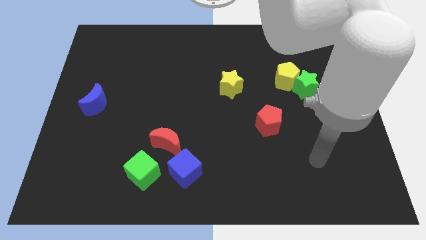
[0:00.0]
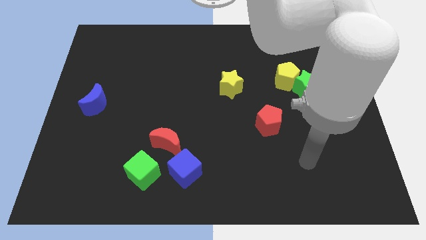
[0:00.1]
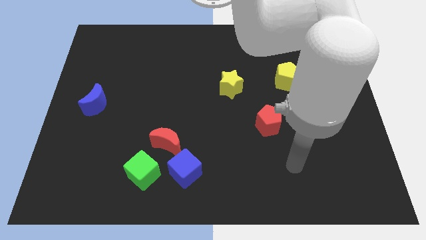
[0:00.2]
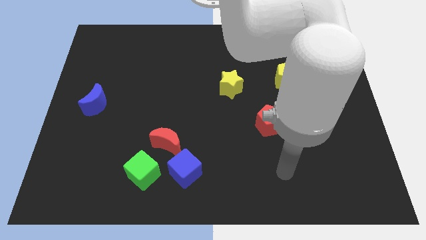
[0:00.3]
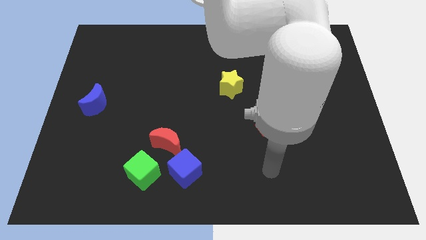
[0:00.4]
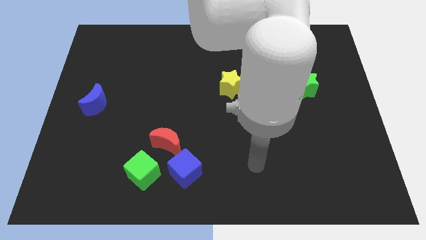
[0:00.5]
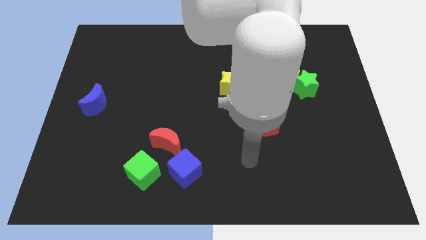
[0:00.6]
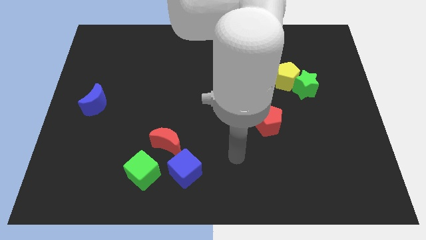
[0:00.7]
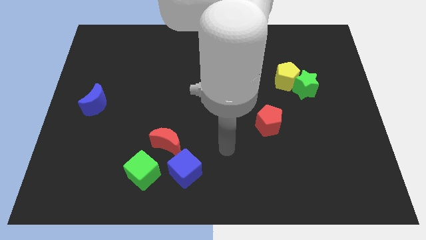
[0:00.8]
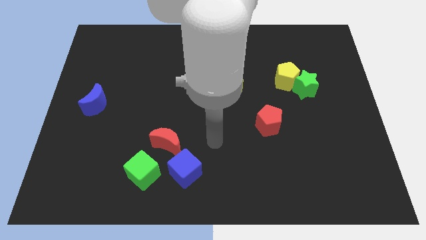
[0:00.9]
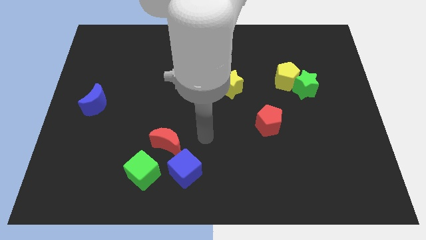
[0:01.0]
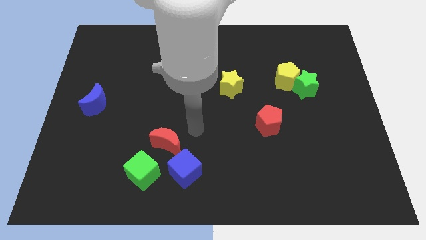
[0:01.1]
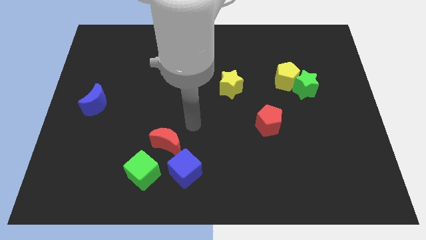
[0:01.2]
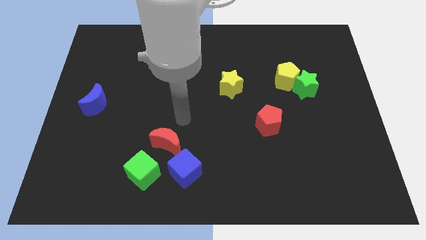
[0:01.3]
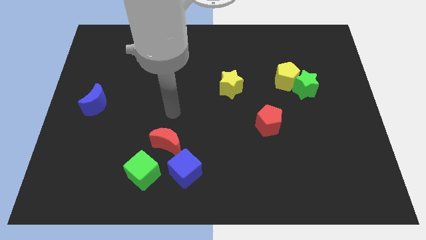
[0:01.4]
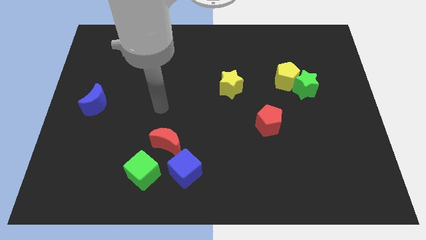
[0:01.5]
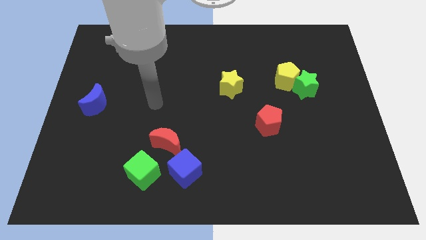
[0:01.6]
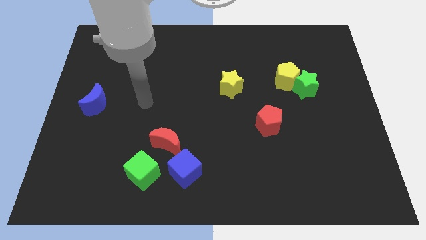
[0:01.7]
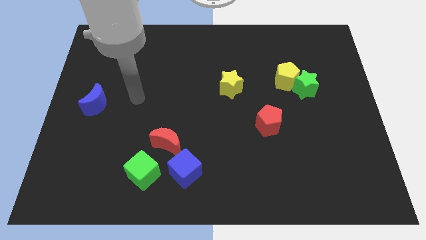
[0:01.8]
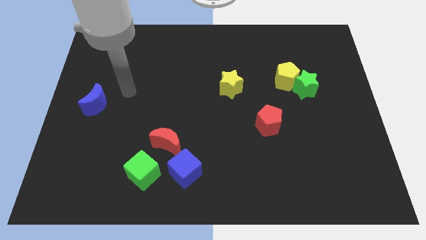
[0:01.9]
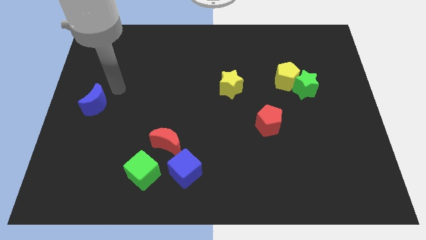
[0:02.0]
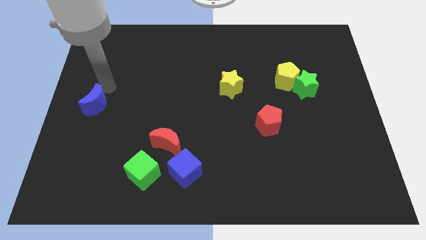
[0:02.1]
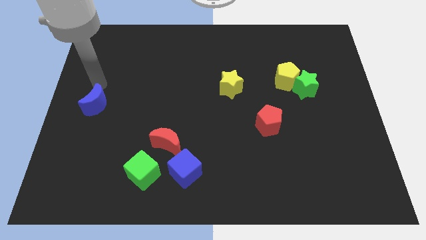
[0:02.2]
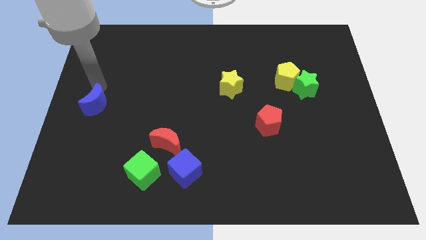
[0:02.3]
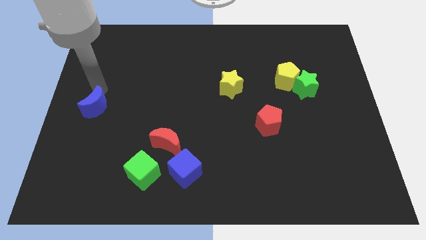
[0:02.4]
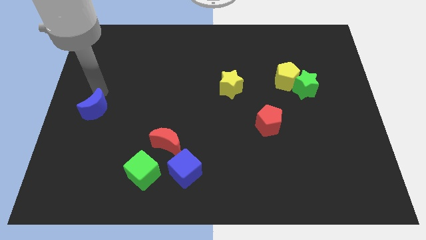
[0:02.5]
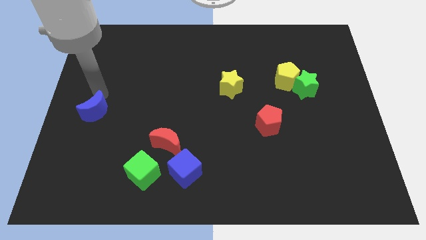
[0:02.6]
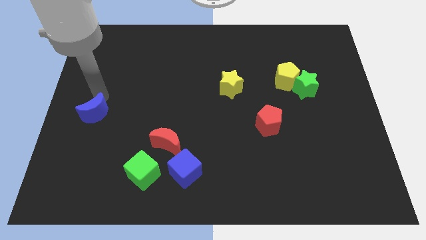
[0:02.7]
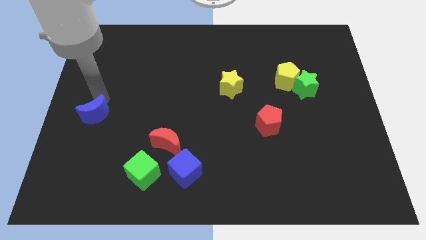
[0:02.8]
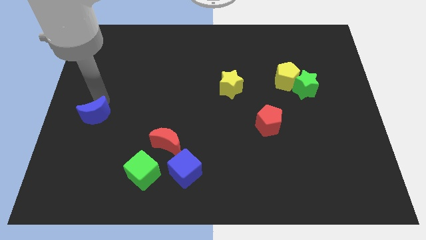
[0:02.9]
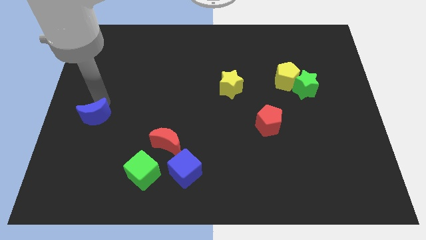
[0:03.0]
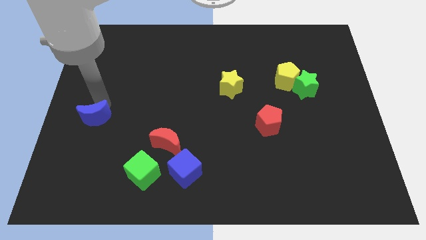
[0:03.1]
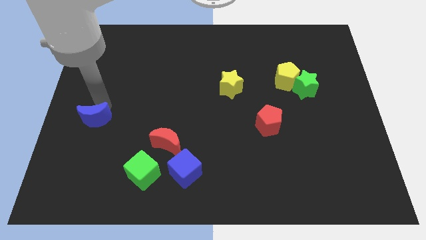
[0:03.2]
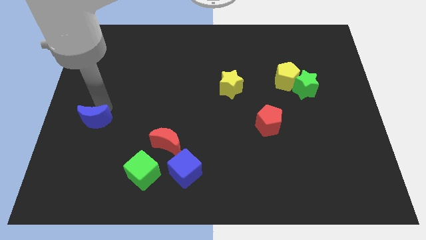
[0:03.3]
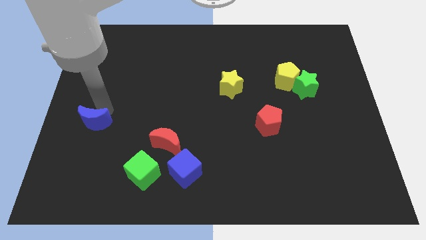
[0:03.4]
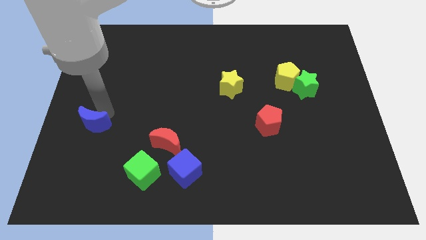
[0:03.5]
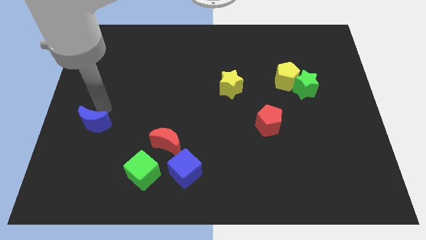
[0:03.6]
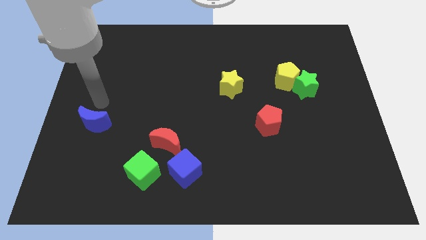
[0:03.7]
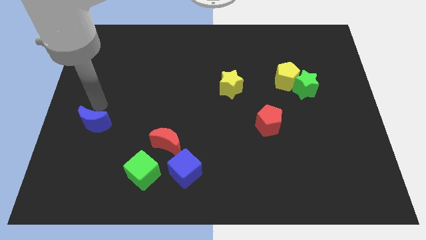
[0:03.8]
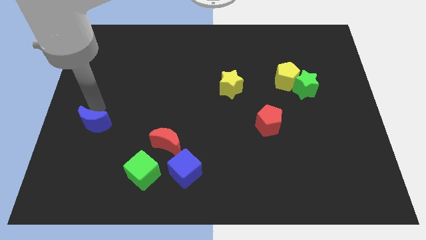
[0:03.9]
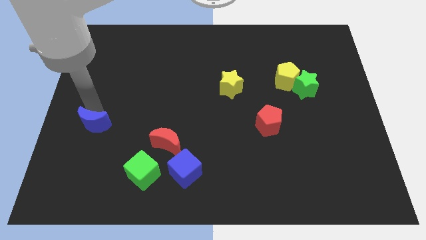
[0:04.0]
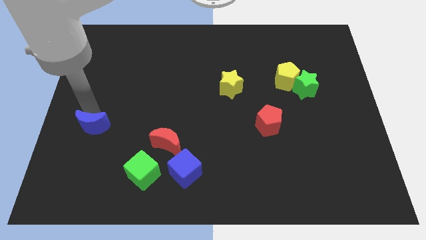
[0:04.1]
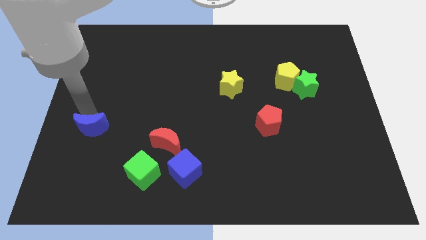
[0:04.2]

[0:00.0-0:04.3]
move the blue moon a little down

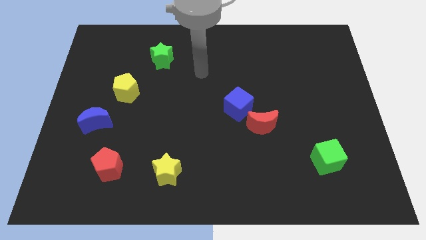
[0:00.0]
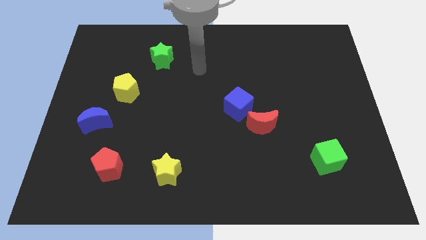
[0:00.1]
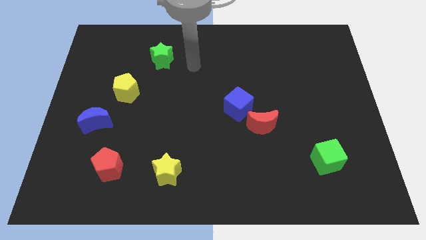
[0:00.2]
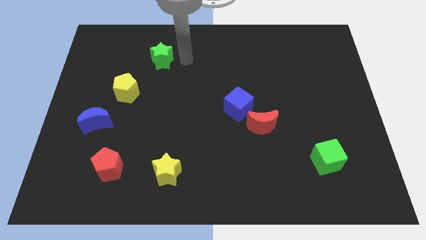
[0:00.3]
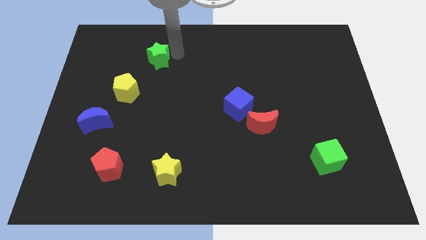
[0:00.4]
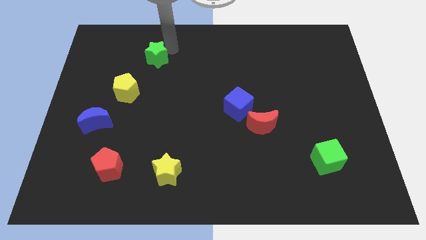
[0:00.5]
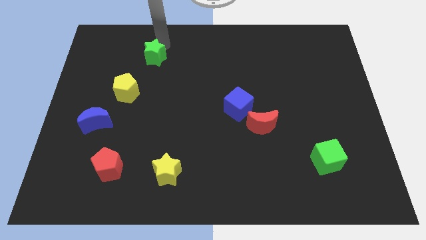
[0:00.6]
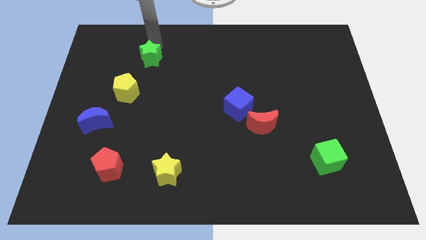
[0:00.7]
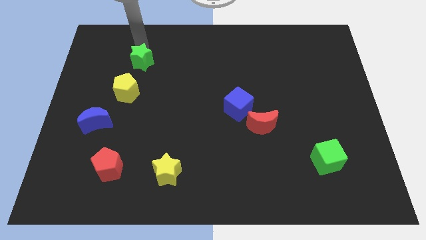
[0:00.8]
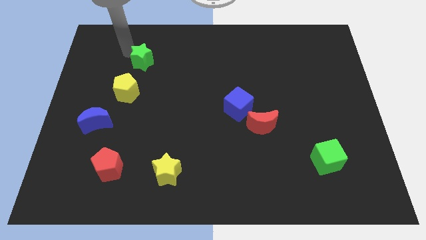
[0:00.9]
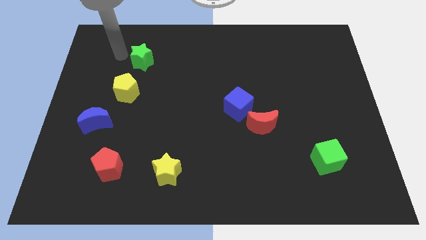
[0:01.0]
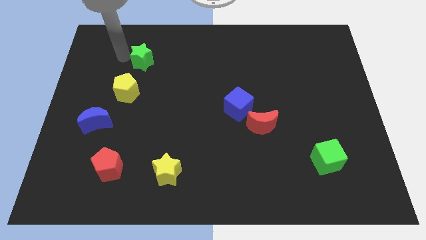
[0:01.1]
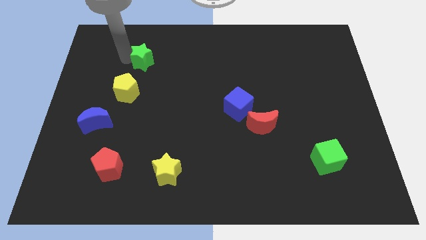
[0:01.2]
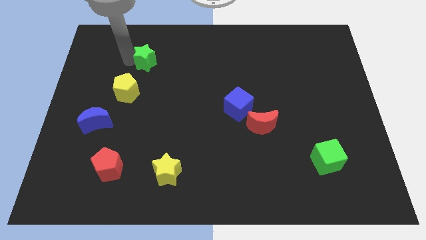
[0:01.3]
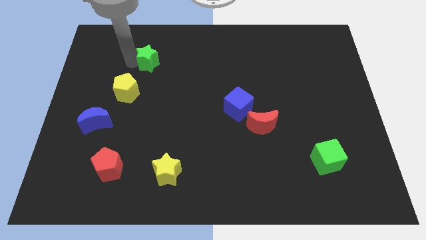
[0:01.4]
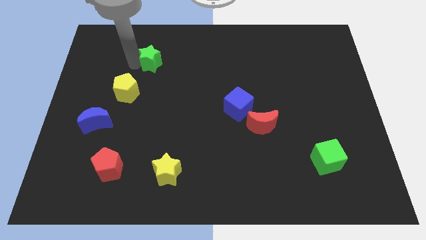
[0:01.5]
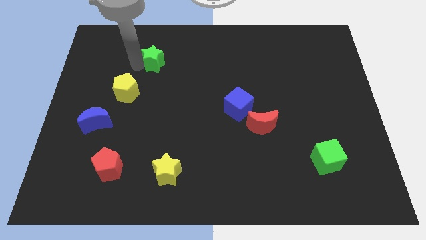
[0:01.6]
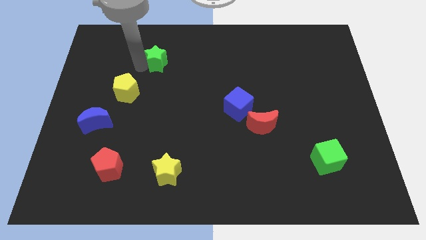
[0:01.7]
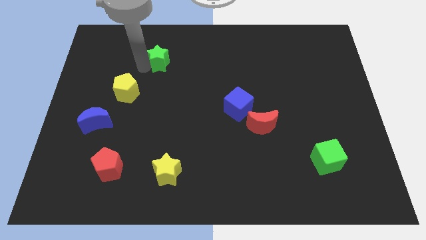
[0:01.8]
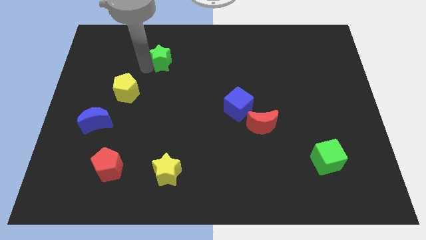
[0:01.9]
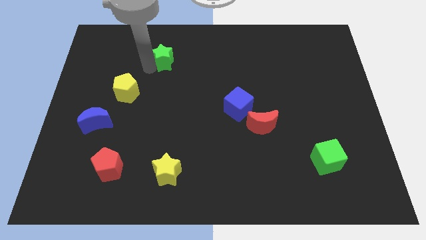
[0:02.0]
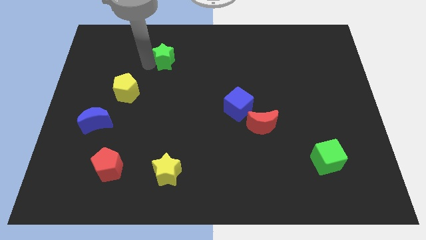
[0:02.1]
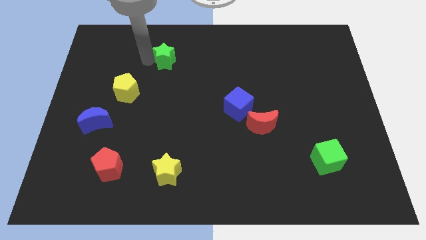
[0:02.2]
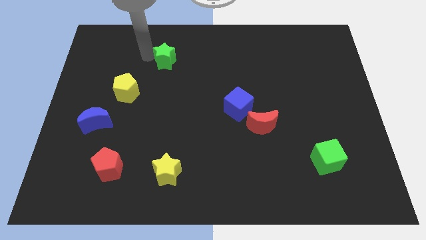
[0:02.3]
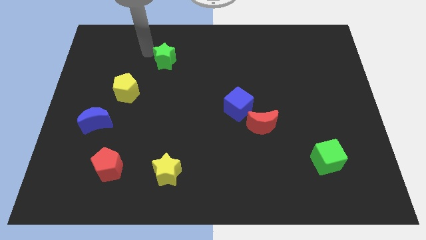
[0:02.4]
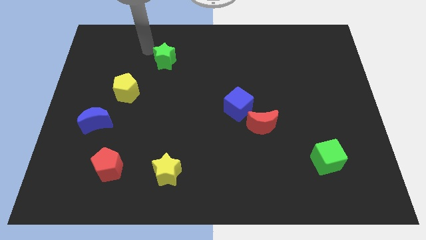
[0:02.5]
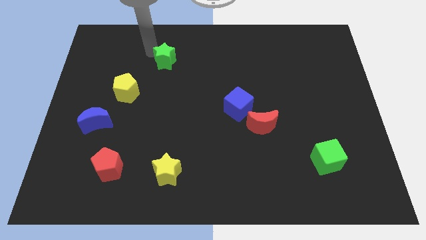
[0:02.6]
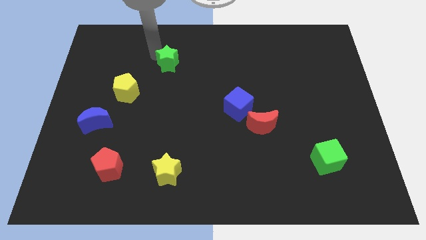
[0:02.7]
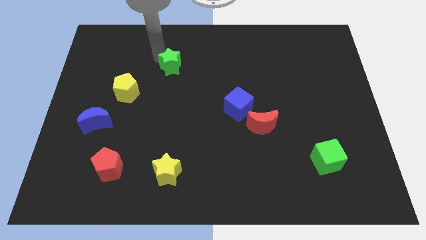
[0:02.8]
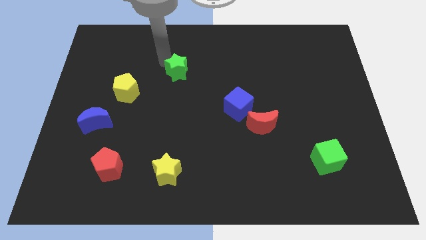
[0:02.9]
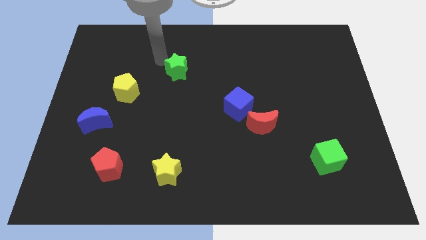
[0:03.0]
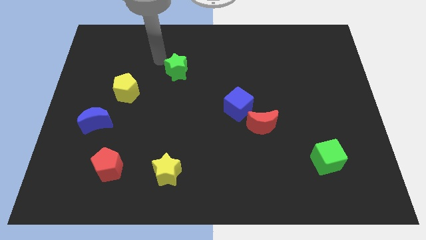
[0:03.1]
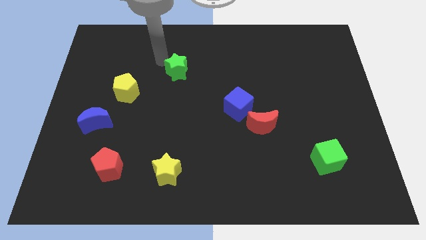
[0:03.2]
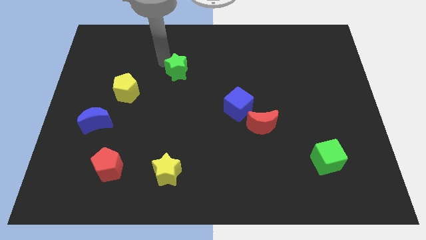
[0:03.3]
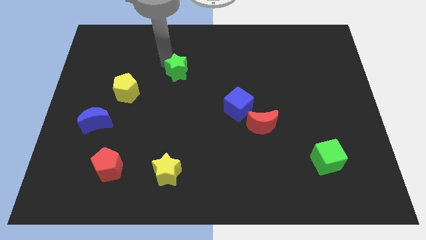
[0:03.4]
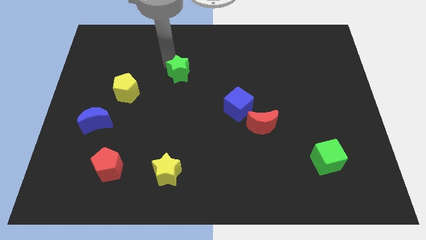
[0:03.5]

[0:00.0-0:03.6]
slightly push the green star down and to the right
